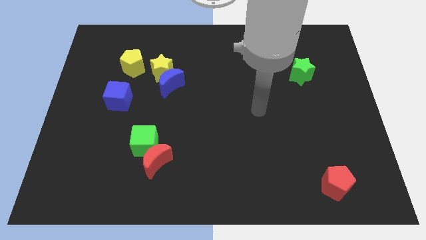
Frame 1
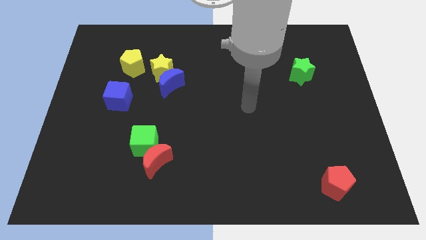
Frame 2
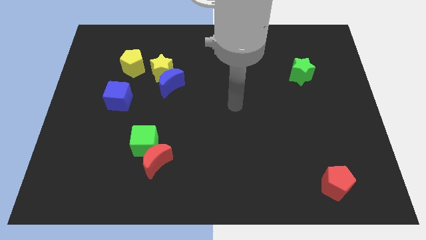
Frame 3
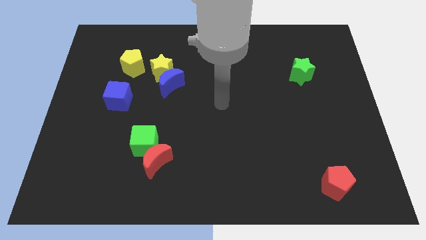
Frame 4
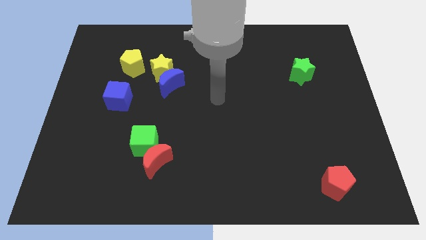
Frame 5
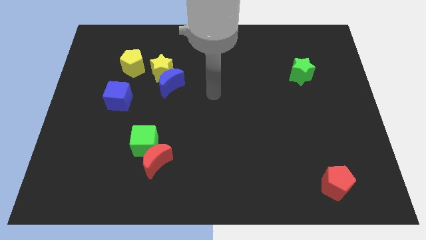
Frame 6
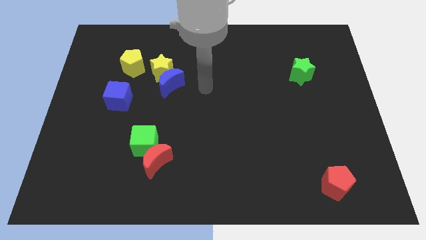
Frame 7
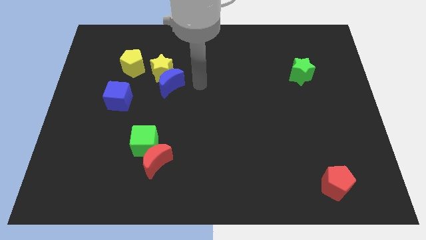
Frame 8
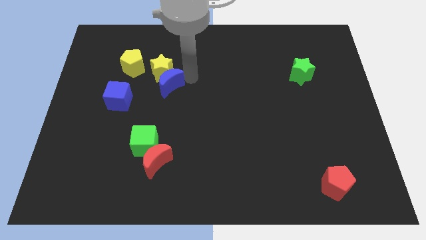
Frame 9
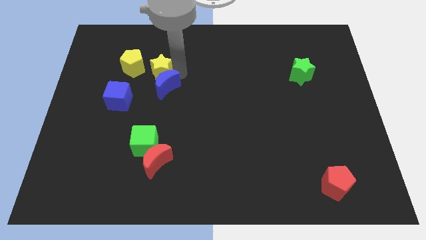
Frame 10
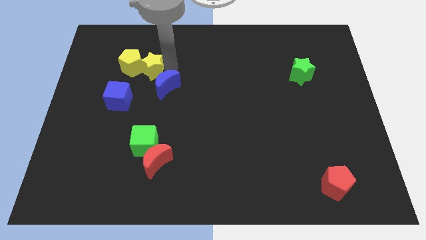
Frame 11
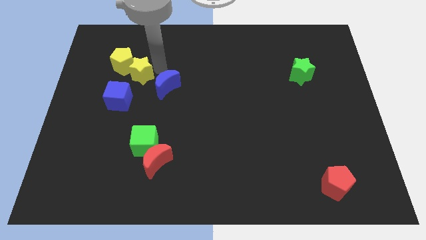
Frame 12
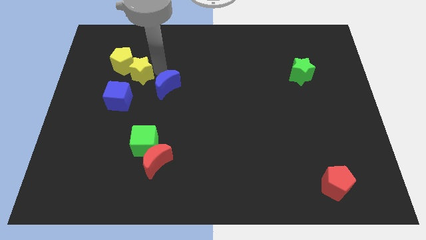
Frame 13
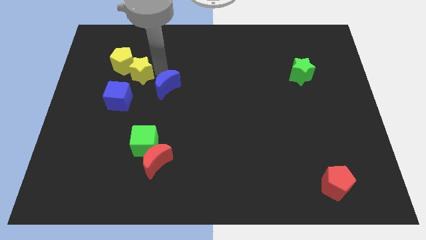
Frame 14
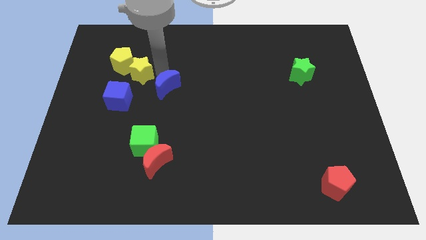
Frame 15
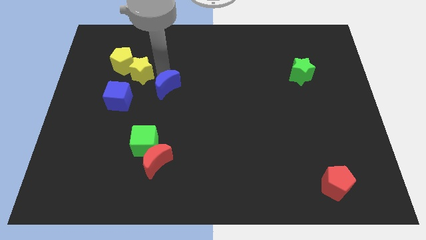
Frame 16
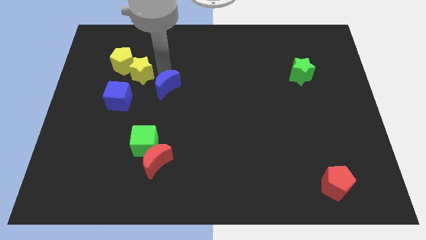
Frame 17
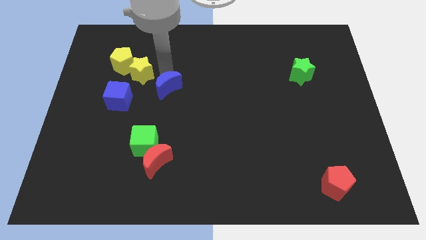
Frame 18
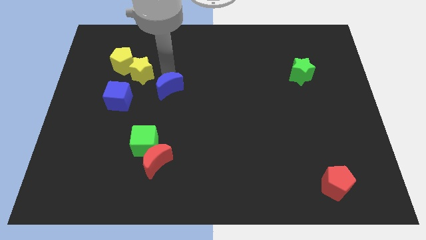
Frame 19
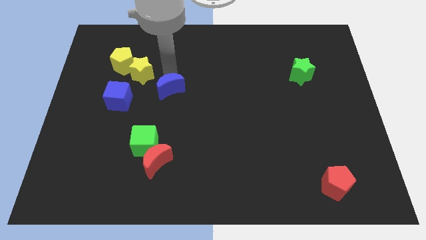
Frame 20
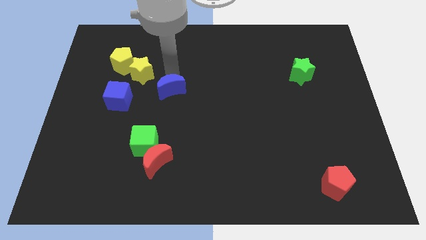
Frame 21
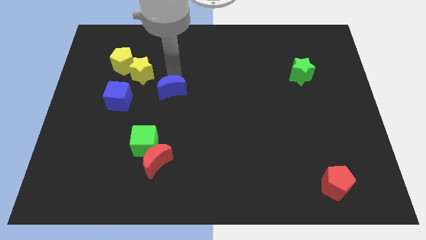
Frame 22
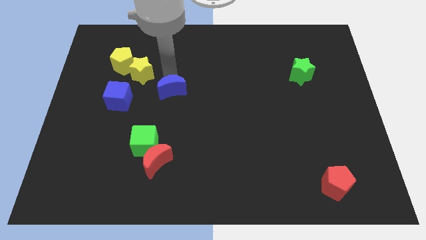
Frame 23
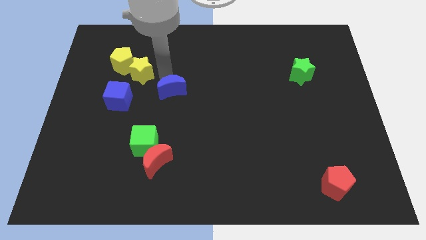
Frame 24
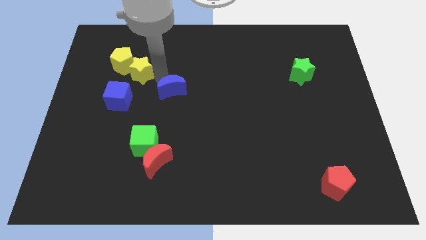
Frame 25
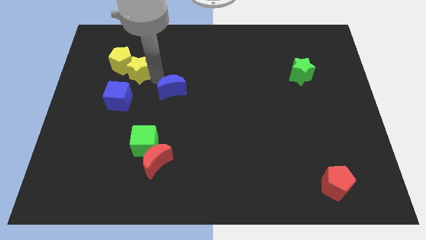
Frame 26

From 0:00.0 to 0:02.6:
move the blue moon away from the yellow star

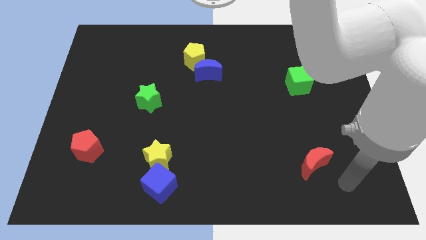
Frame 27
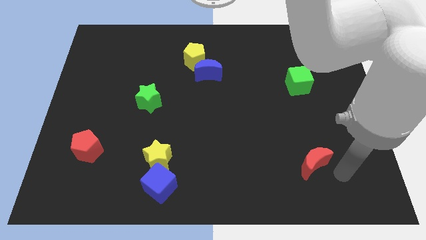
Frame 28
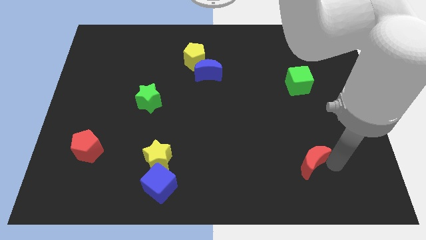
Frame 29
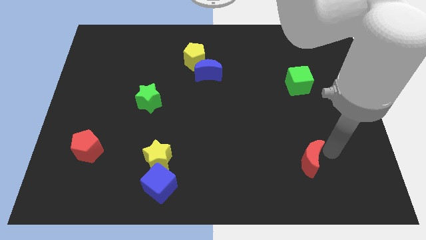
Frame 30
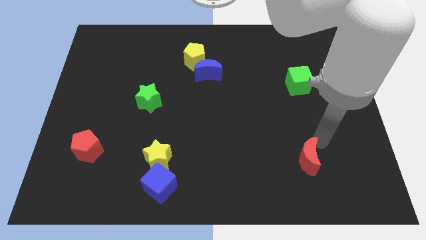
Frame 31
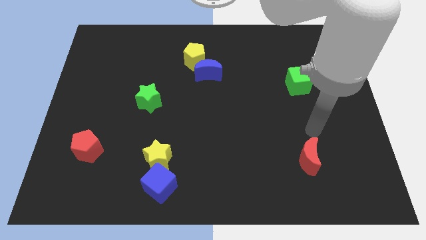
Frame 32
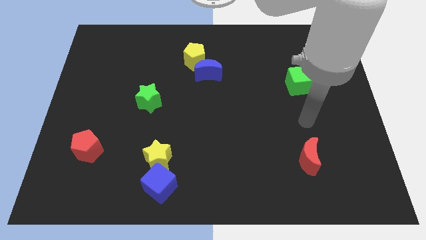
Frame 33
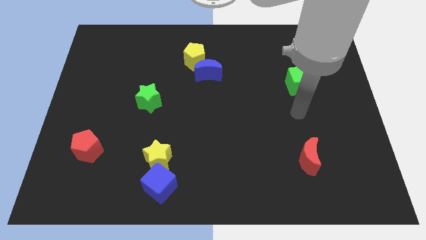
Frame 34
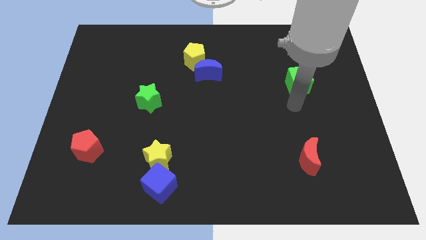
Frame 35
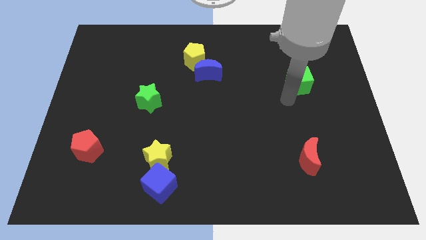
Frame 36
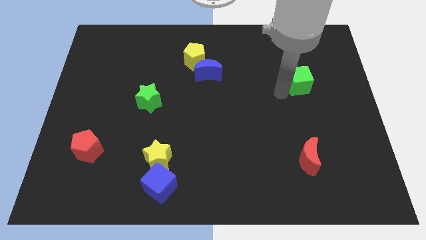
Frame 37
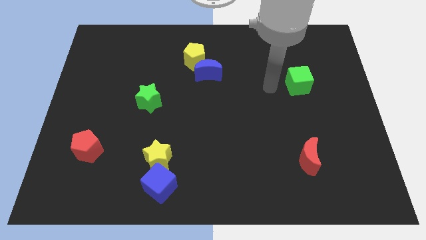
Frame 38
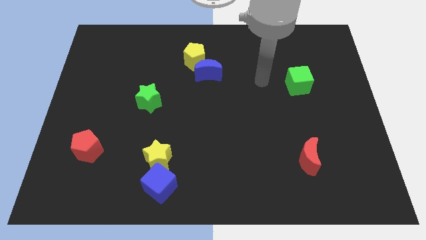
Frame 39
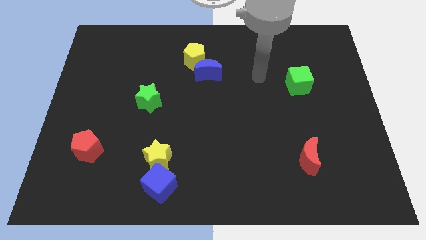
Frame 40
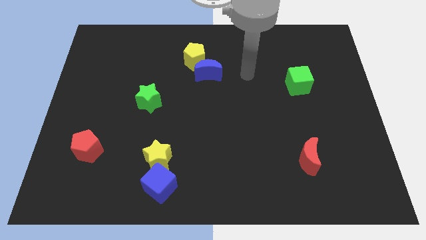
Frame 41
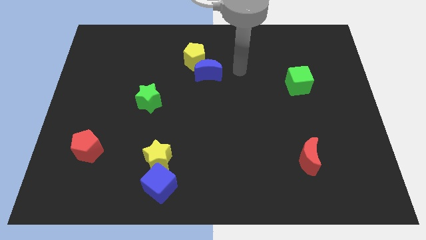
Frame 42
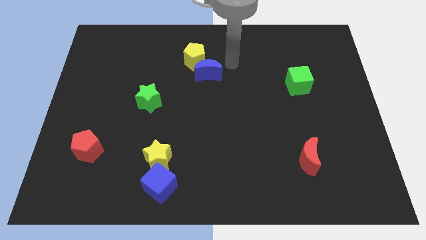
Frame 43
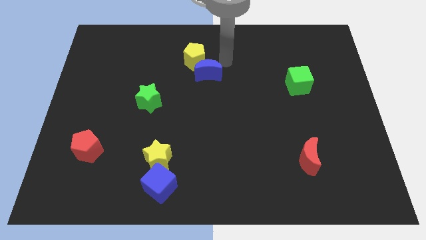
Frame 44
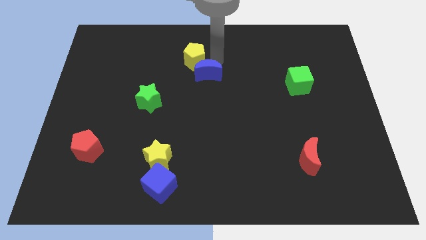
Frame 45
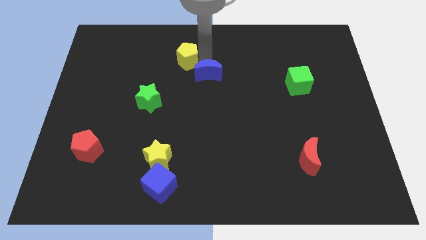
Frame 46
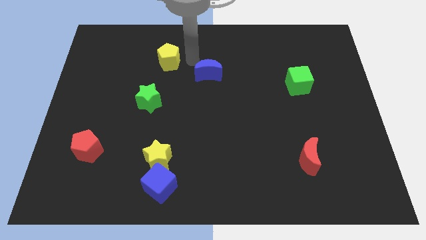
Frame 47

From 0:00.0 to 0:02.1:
pull the blue moon apart from the yellow pentagon

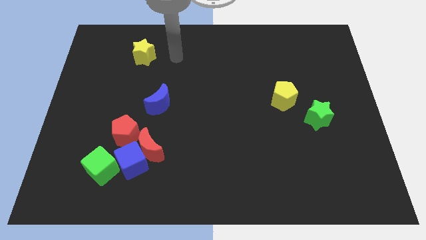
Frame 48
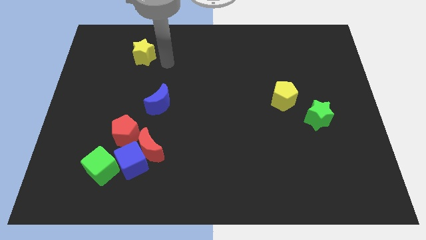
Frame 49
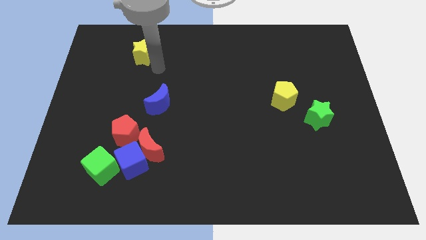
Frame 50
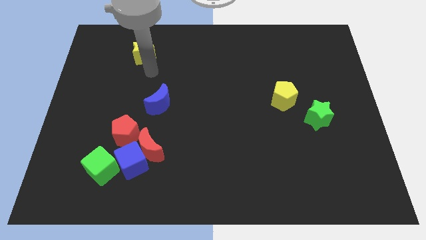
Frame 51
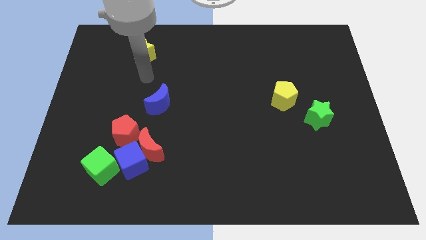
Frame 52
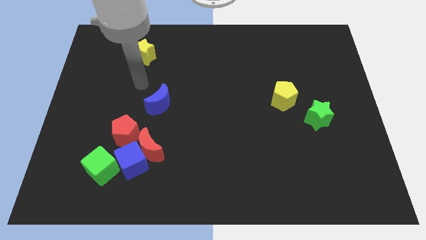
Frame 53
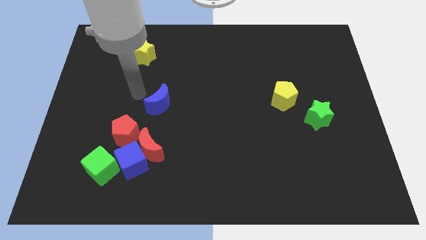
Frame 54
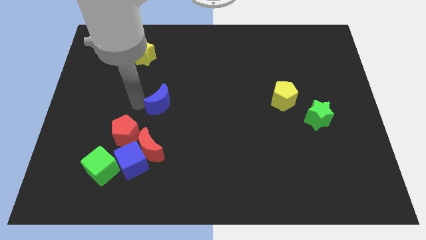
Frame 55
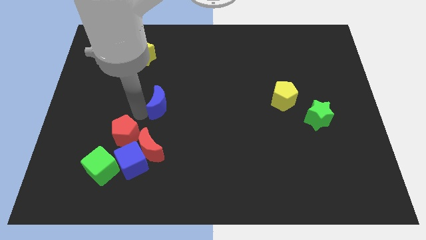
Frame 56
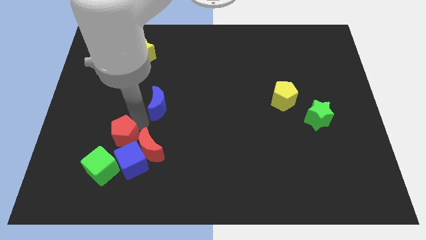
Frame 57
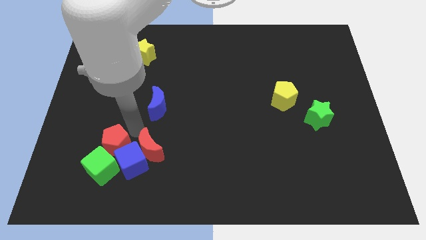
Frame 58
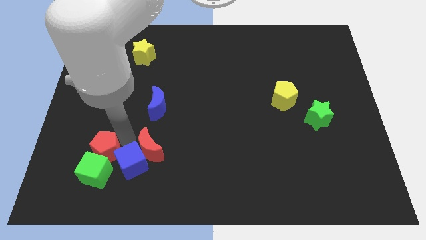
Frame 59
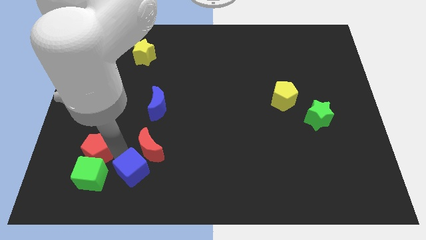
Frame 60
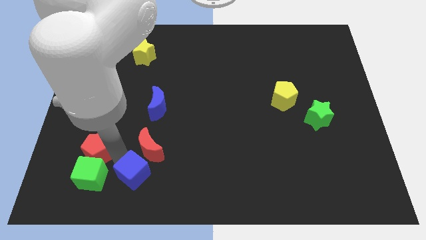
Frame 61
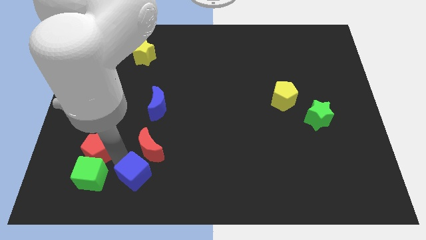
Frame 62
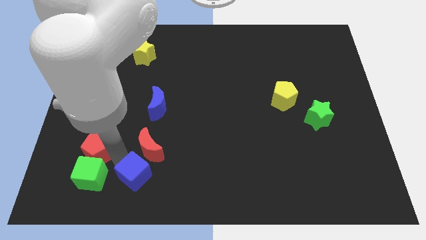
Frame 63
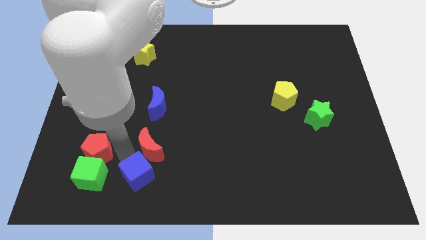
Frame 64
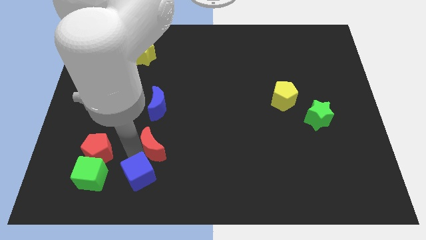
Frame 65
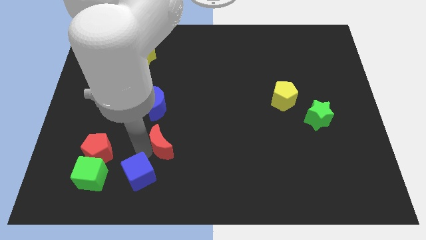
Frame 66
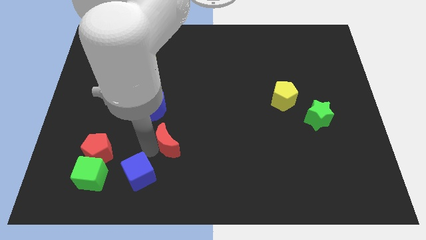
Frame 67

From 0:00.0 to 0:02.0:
pull the red moon apart from the blue cube and red pentagon

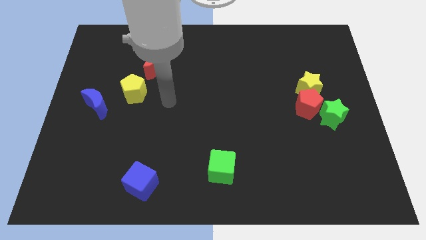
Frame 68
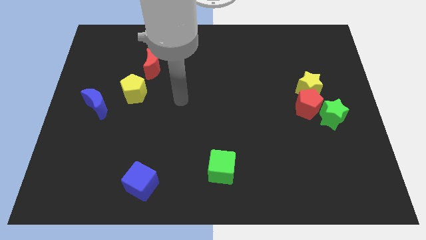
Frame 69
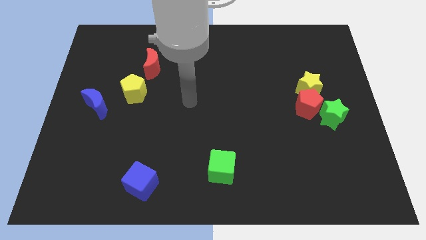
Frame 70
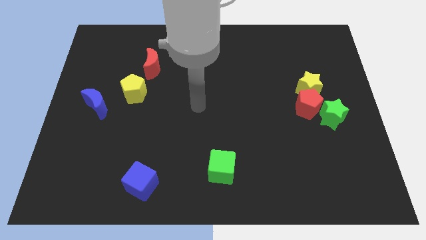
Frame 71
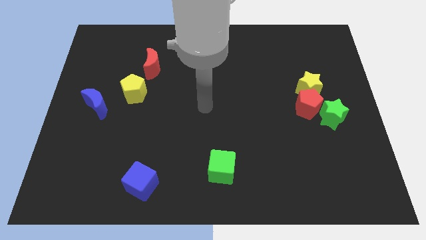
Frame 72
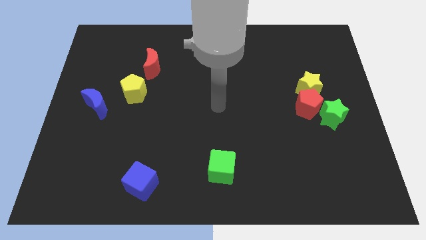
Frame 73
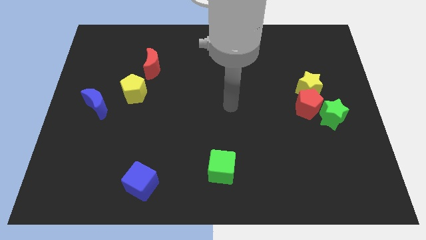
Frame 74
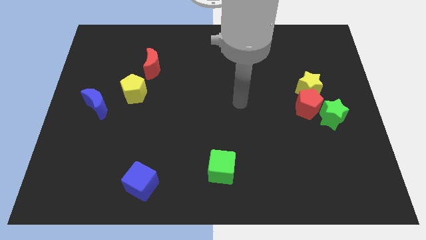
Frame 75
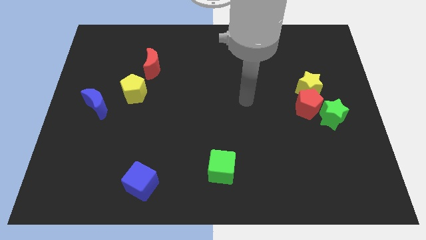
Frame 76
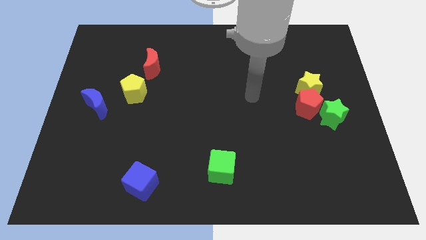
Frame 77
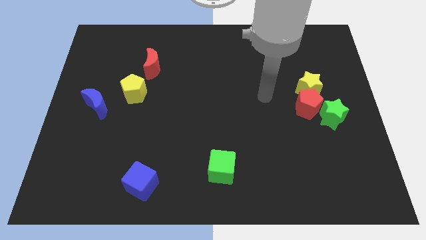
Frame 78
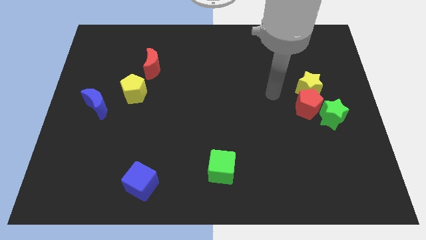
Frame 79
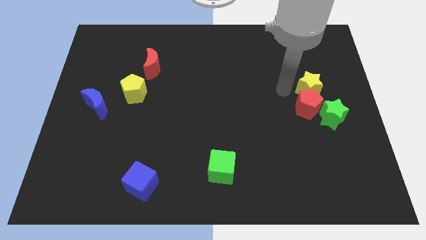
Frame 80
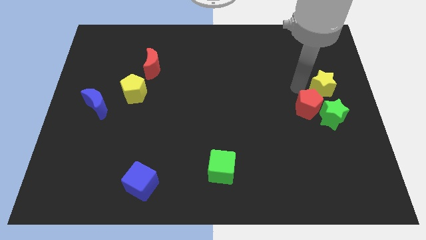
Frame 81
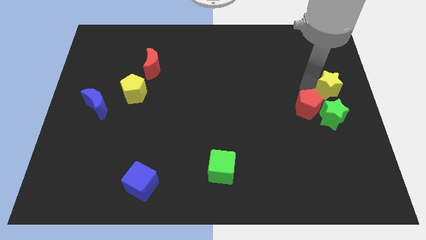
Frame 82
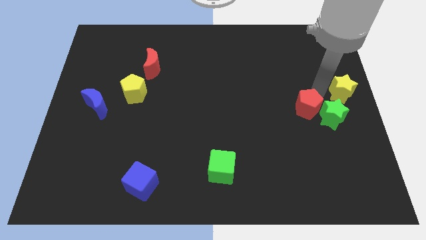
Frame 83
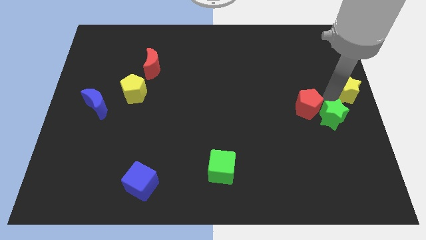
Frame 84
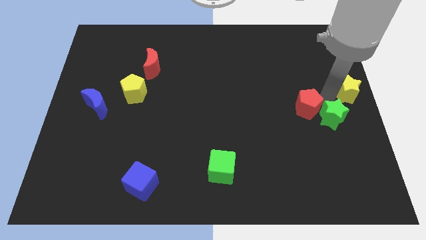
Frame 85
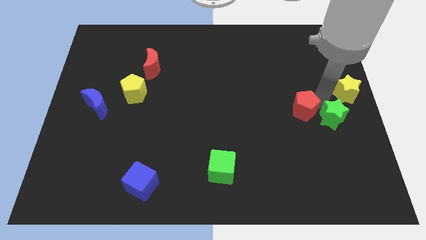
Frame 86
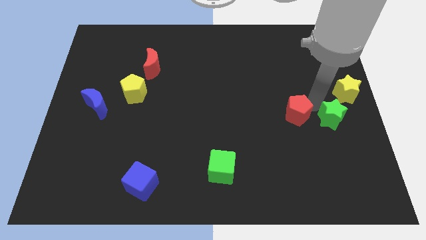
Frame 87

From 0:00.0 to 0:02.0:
move the red pentagon away from the yellow star and green star
